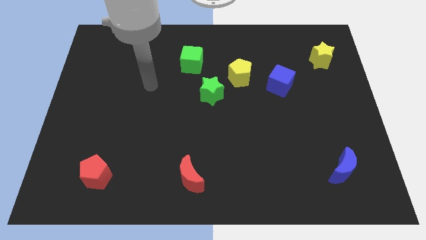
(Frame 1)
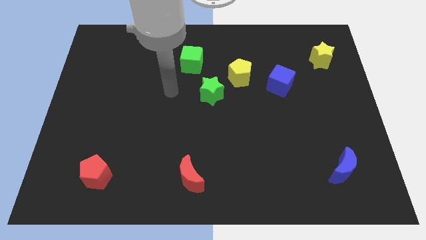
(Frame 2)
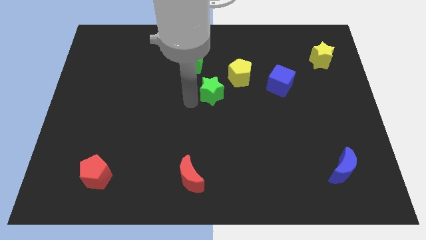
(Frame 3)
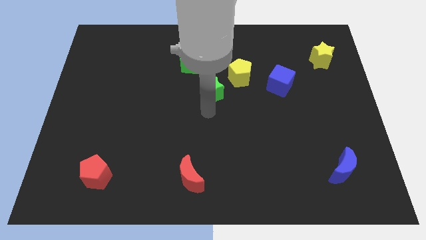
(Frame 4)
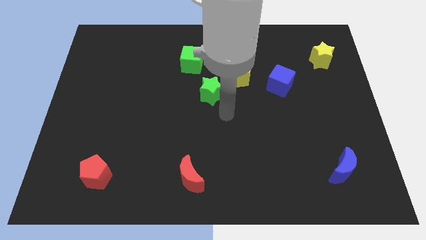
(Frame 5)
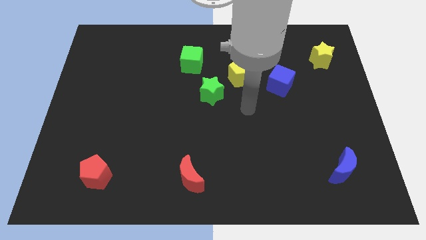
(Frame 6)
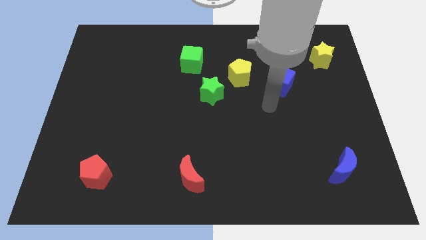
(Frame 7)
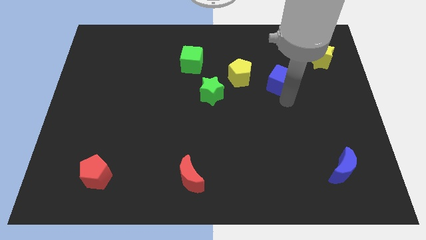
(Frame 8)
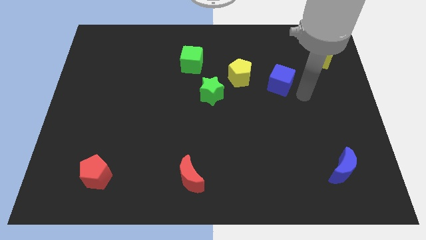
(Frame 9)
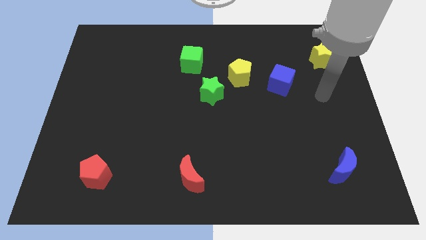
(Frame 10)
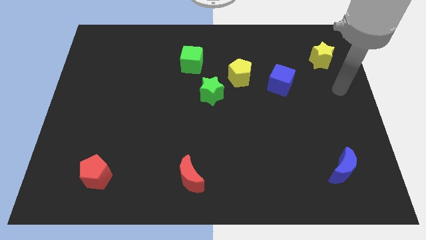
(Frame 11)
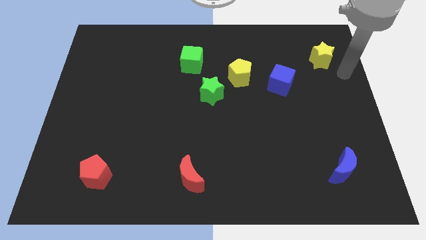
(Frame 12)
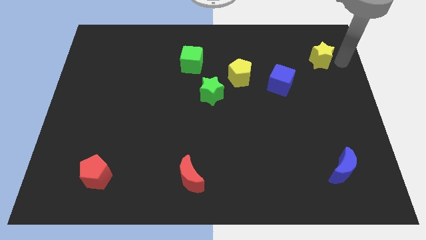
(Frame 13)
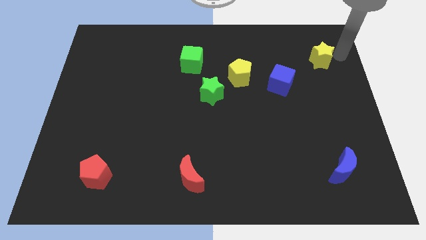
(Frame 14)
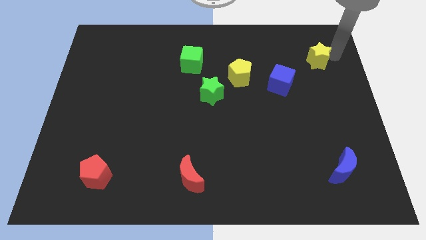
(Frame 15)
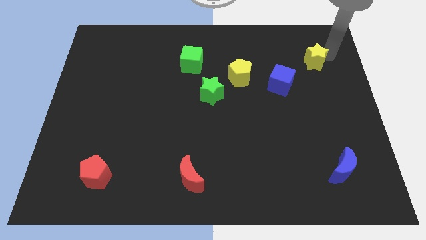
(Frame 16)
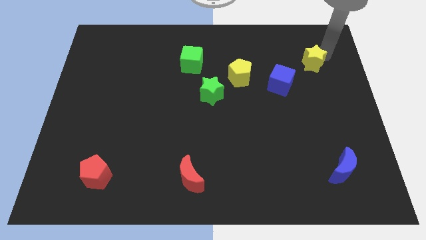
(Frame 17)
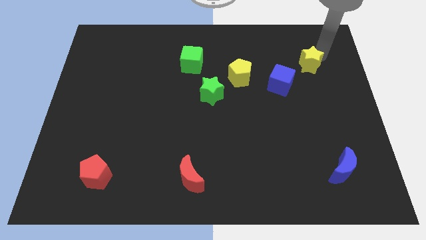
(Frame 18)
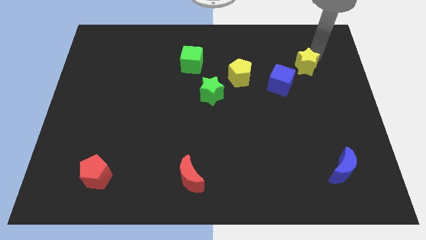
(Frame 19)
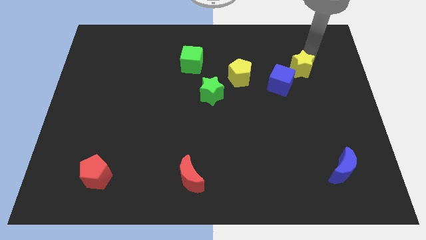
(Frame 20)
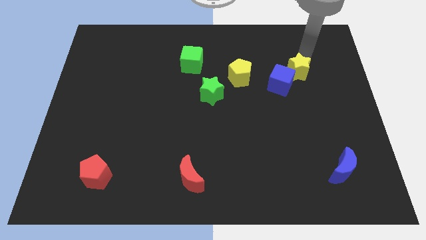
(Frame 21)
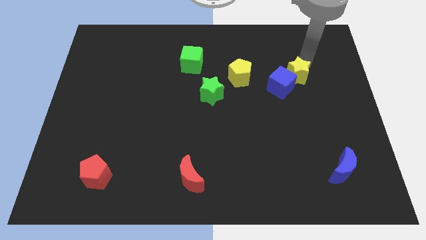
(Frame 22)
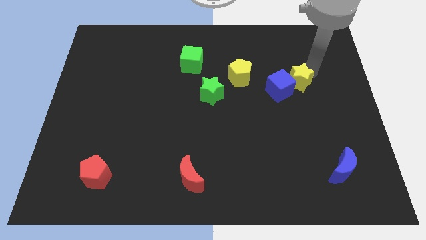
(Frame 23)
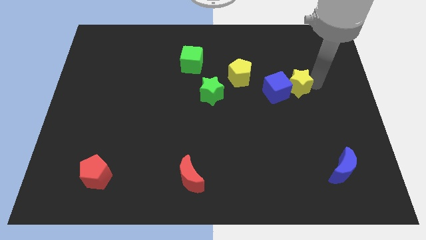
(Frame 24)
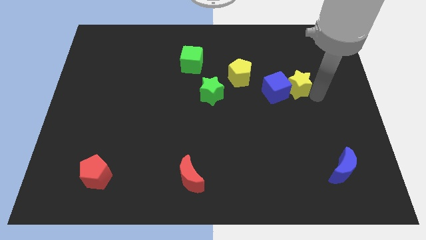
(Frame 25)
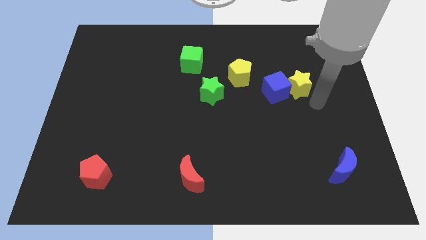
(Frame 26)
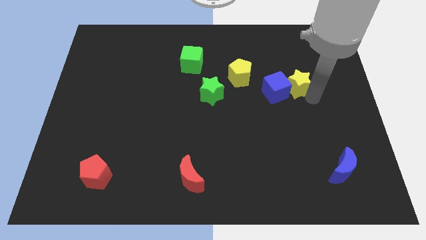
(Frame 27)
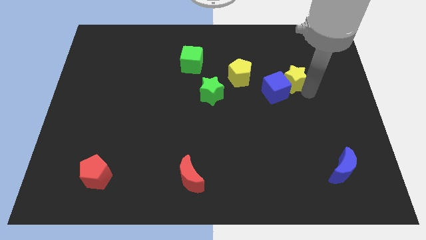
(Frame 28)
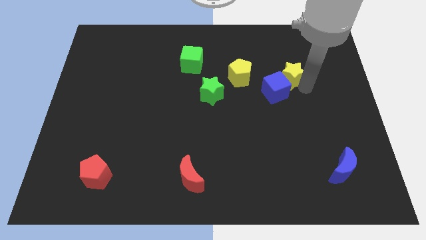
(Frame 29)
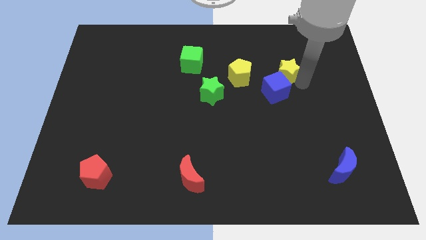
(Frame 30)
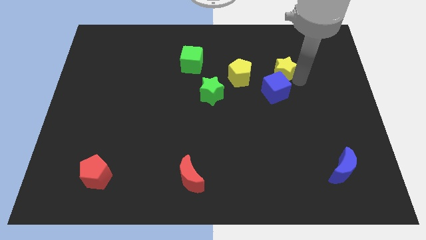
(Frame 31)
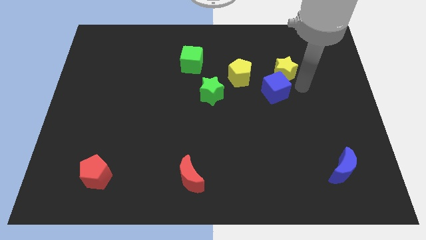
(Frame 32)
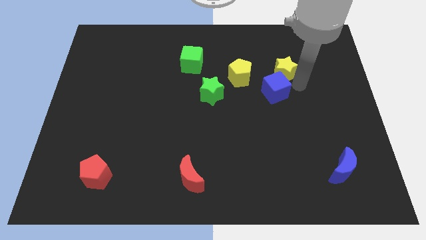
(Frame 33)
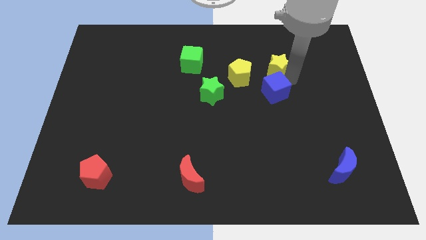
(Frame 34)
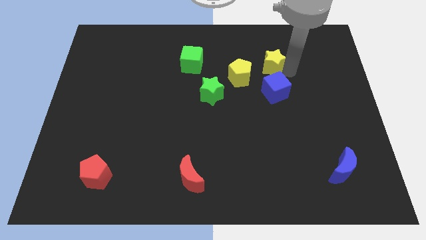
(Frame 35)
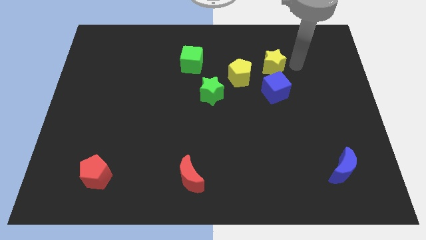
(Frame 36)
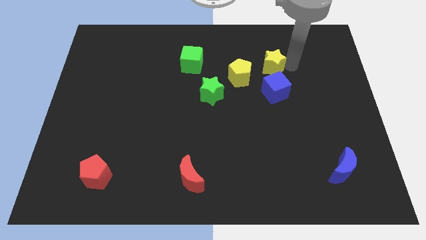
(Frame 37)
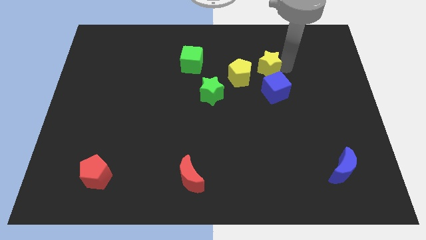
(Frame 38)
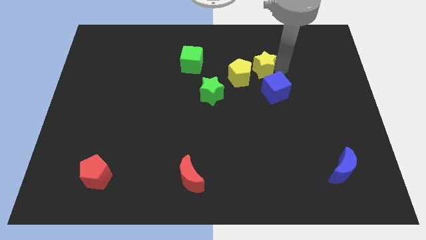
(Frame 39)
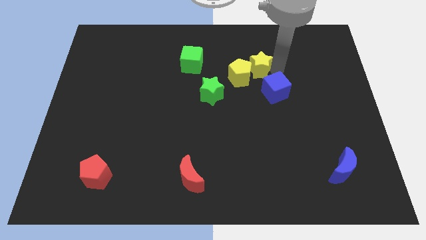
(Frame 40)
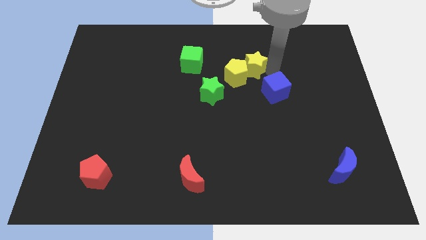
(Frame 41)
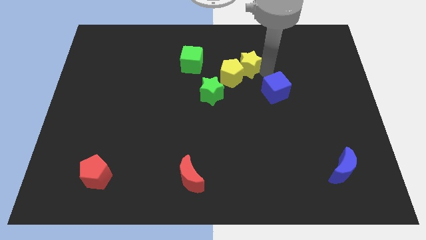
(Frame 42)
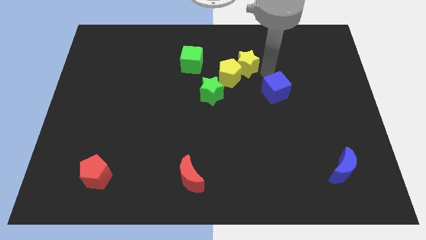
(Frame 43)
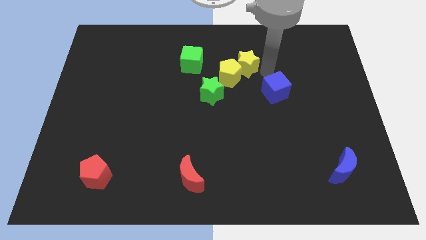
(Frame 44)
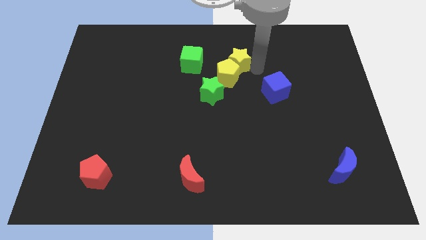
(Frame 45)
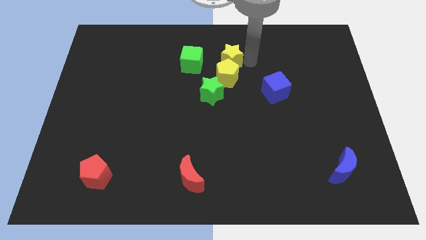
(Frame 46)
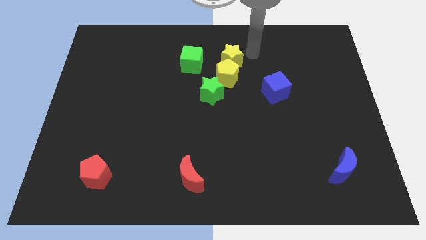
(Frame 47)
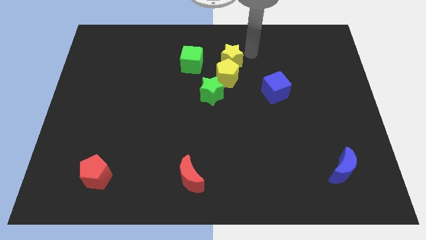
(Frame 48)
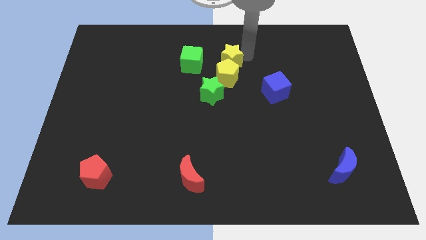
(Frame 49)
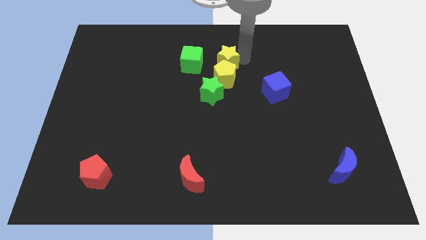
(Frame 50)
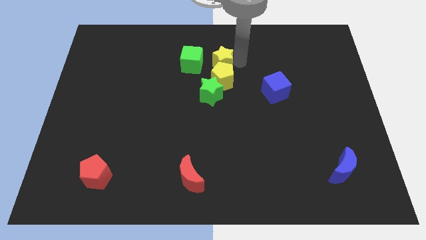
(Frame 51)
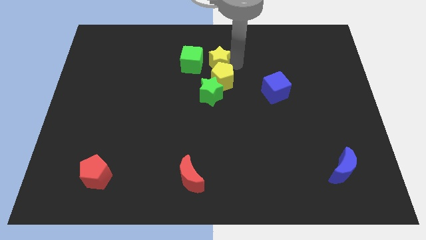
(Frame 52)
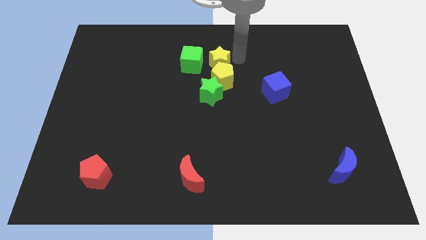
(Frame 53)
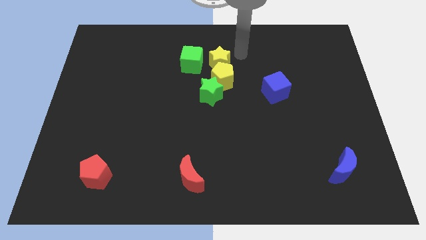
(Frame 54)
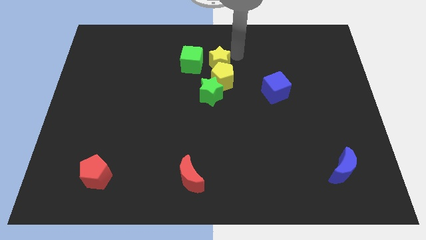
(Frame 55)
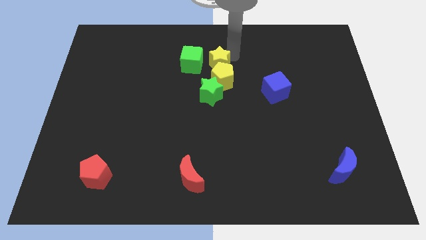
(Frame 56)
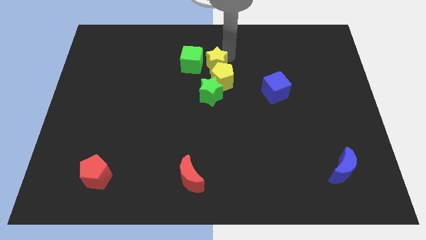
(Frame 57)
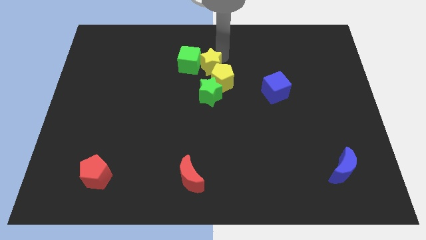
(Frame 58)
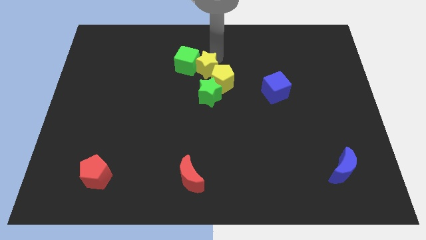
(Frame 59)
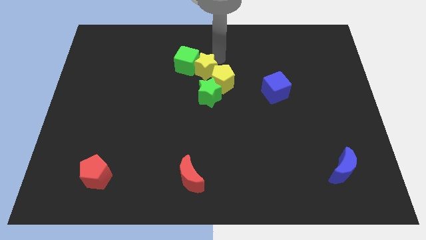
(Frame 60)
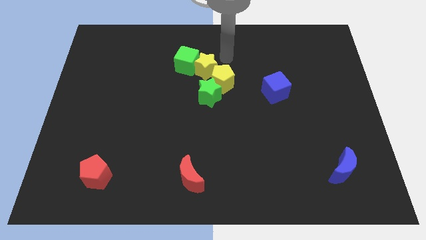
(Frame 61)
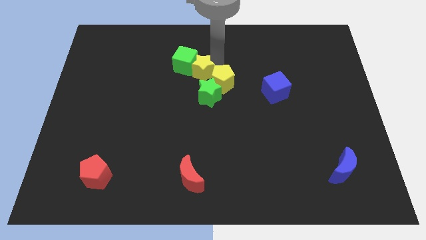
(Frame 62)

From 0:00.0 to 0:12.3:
slide the yellow star diagonally up and to the left of the green star

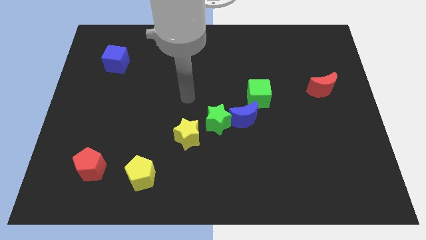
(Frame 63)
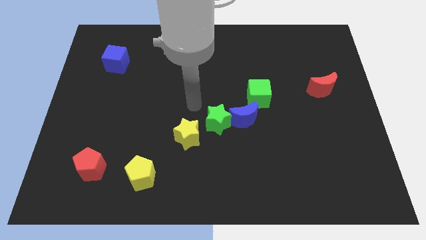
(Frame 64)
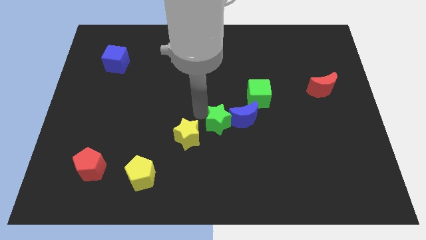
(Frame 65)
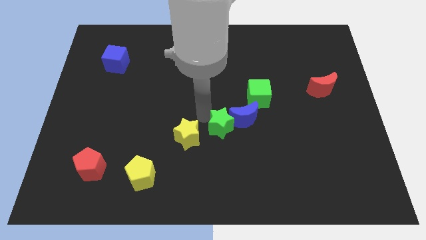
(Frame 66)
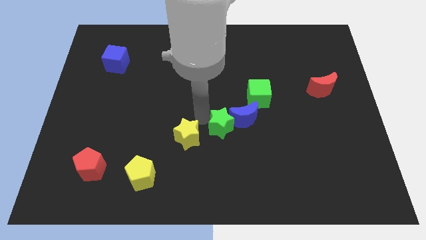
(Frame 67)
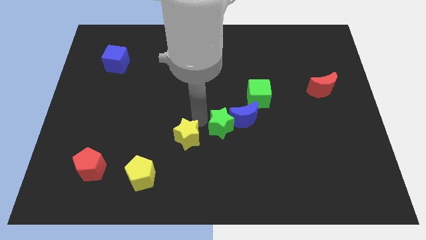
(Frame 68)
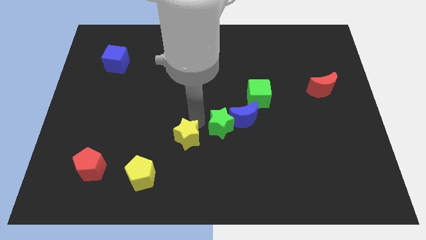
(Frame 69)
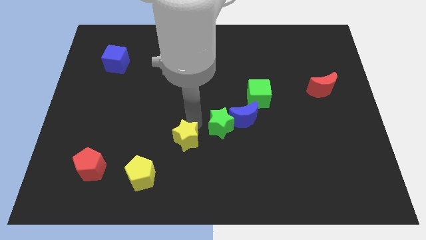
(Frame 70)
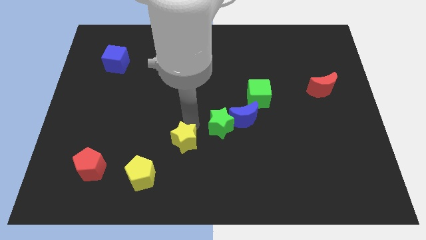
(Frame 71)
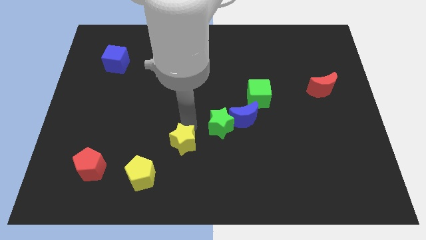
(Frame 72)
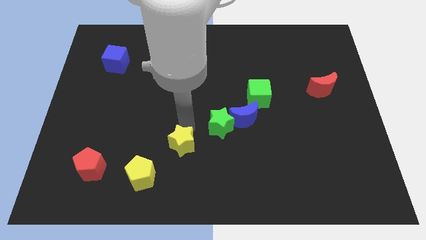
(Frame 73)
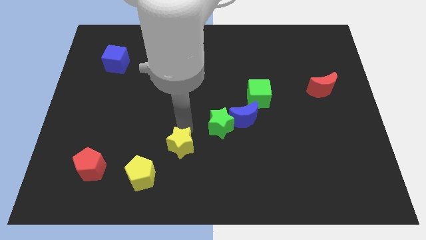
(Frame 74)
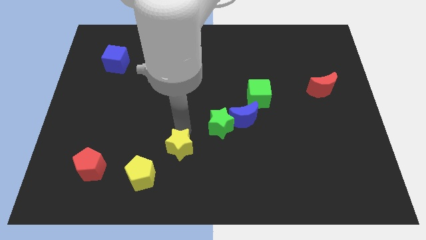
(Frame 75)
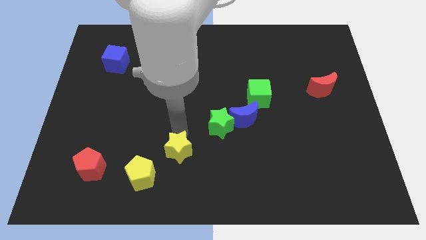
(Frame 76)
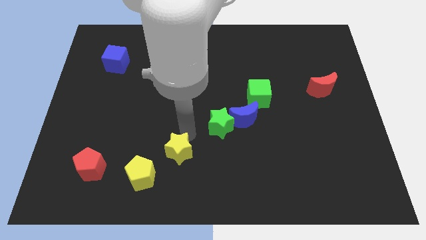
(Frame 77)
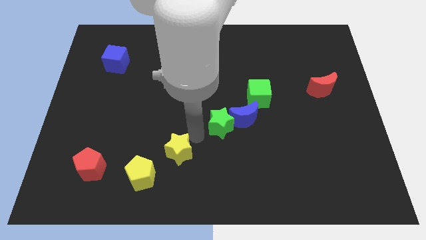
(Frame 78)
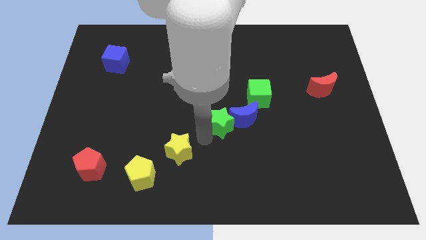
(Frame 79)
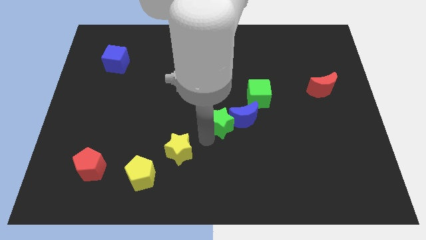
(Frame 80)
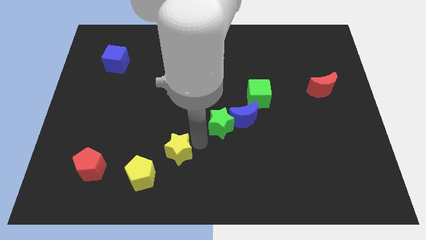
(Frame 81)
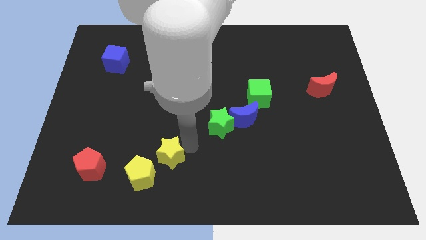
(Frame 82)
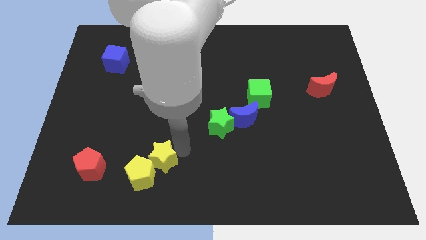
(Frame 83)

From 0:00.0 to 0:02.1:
slide the yellow star to the right of the red pentagon

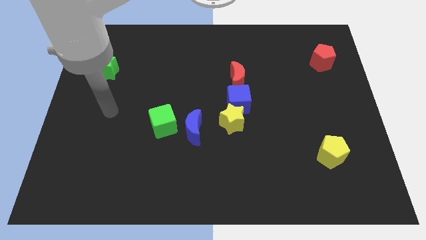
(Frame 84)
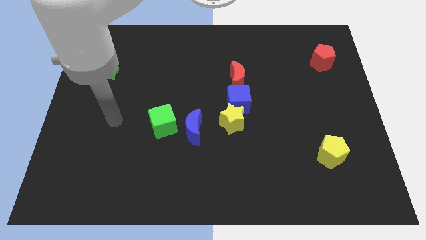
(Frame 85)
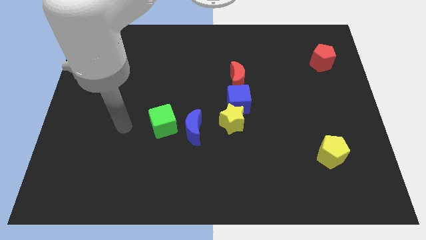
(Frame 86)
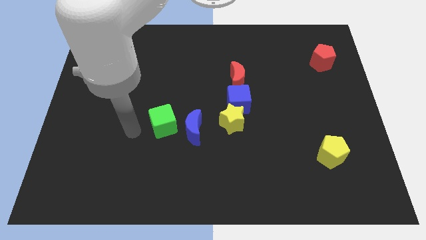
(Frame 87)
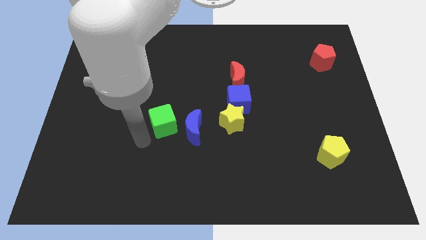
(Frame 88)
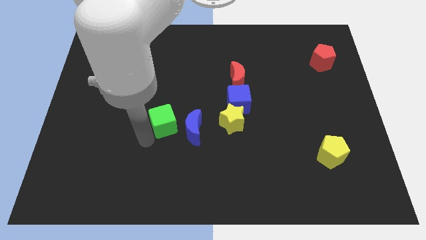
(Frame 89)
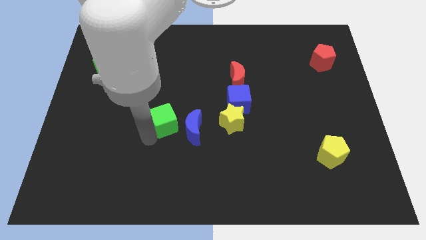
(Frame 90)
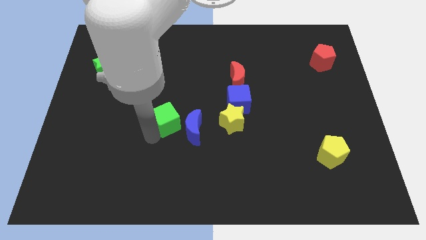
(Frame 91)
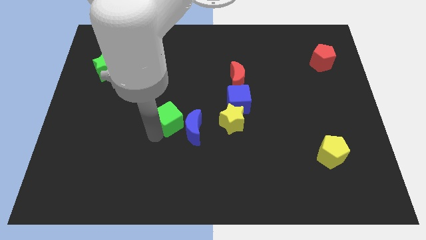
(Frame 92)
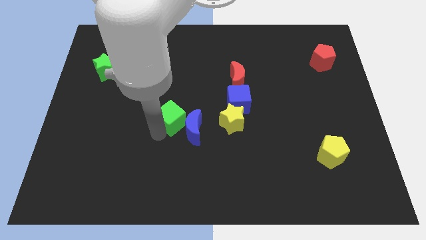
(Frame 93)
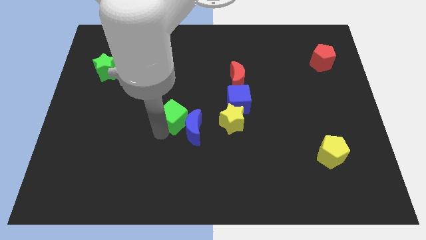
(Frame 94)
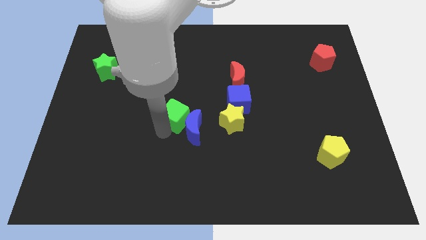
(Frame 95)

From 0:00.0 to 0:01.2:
move the green cube above the blue moon
